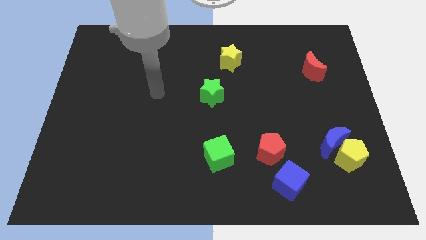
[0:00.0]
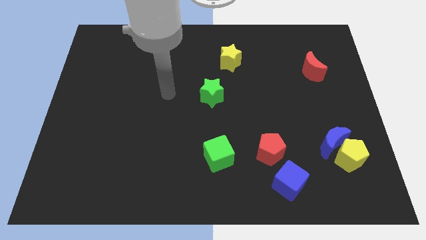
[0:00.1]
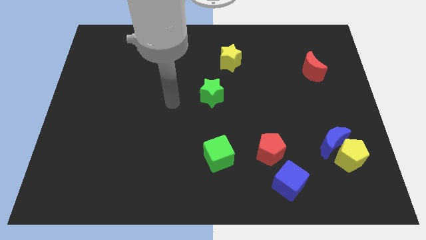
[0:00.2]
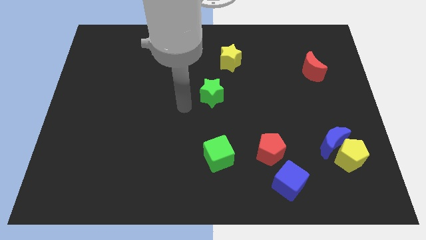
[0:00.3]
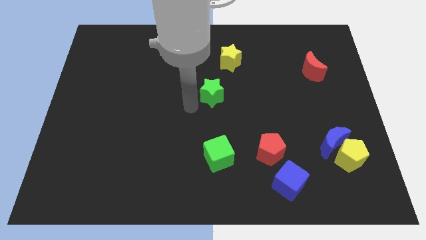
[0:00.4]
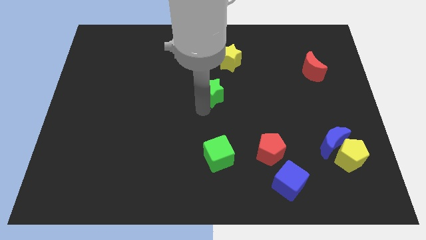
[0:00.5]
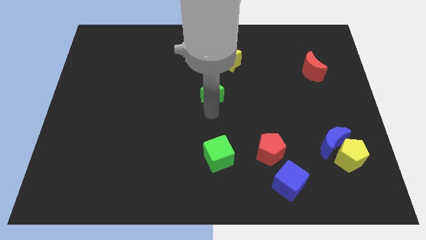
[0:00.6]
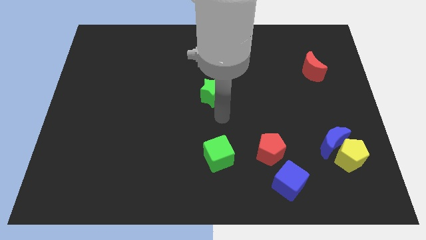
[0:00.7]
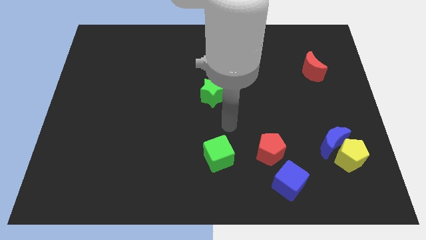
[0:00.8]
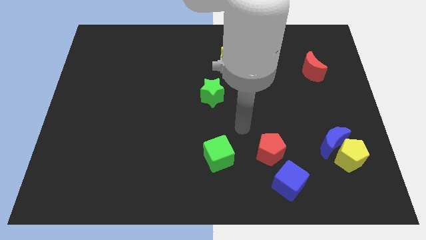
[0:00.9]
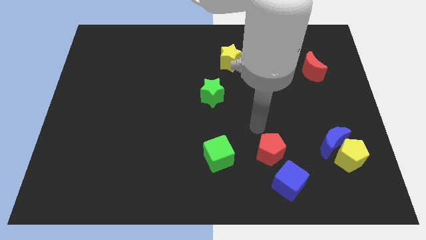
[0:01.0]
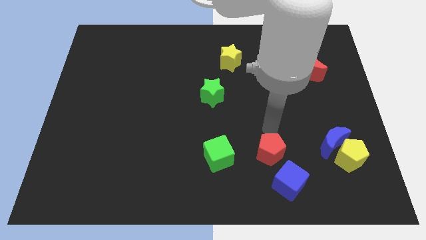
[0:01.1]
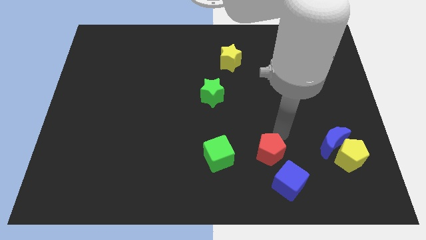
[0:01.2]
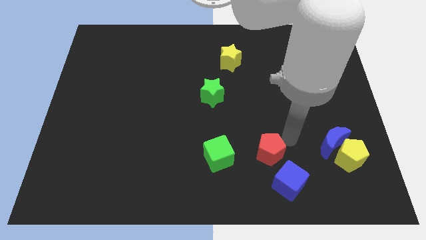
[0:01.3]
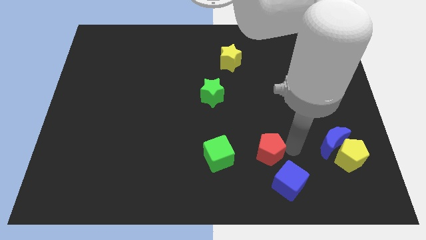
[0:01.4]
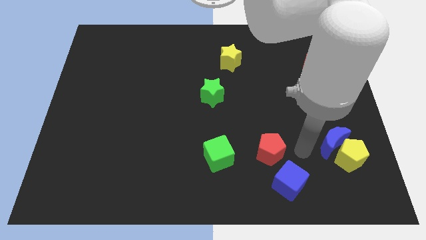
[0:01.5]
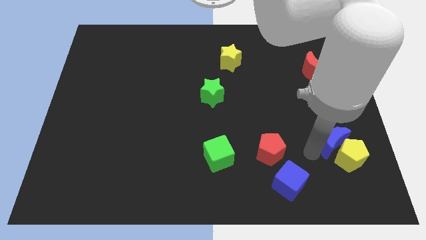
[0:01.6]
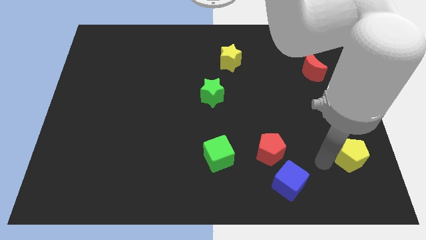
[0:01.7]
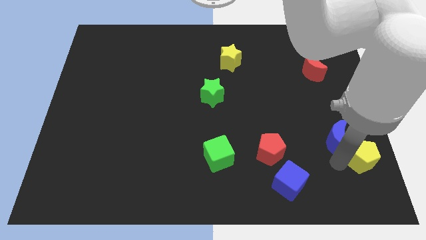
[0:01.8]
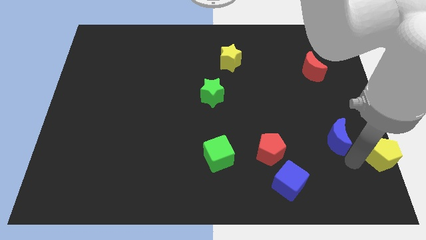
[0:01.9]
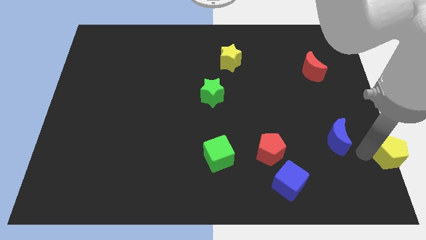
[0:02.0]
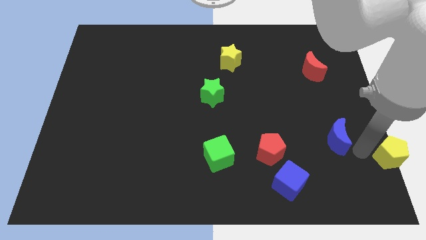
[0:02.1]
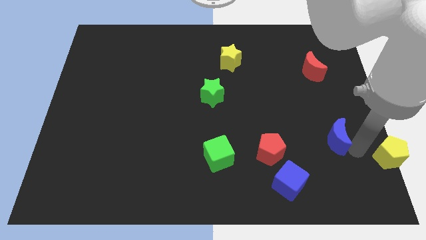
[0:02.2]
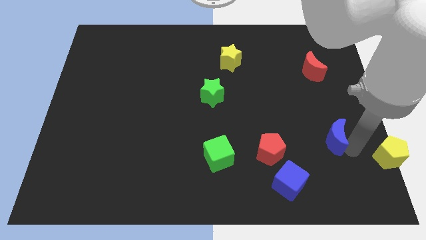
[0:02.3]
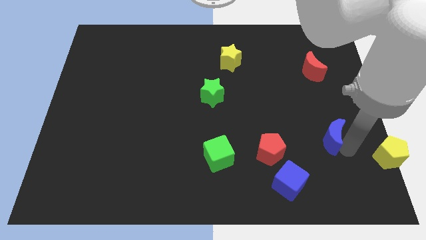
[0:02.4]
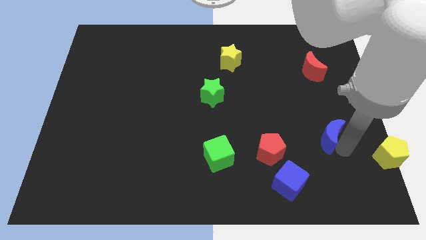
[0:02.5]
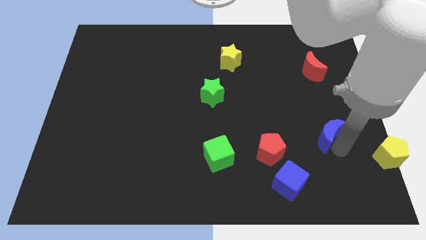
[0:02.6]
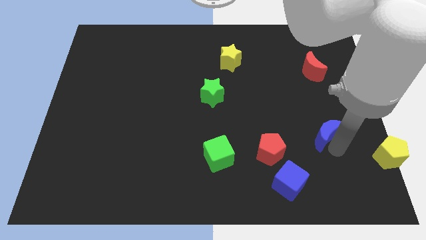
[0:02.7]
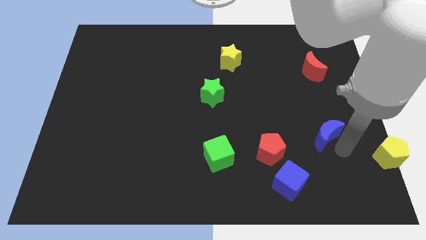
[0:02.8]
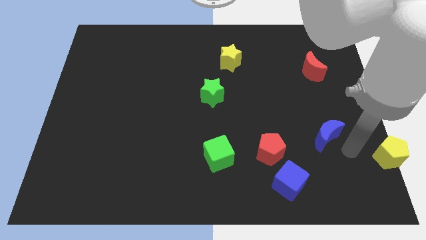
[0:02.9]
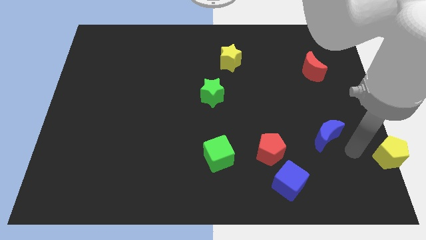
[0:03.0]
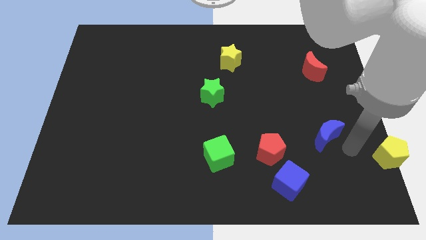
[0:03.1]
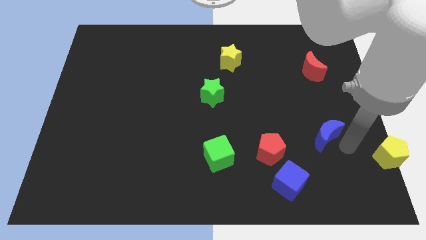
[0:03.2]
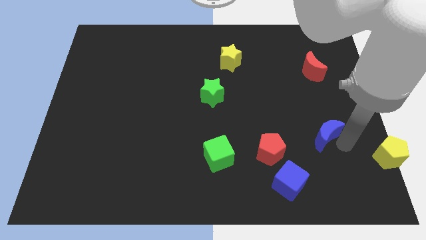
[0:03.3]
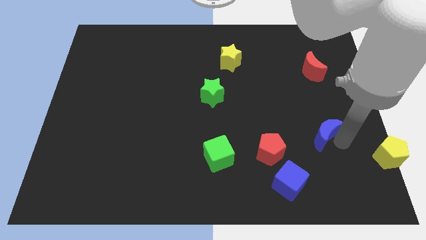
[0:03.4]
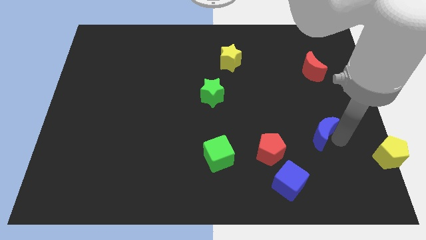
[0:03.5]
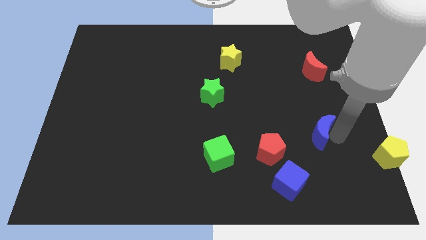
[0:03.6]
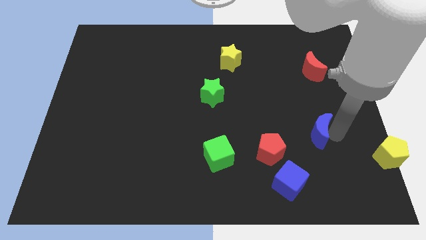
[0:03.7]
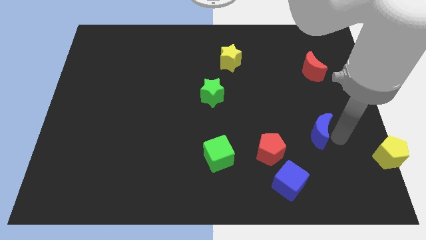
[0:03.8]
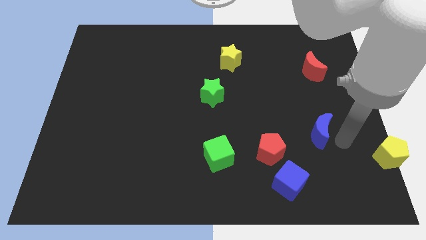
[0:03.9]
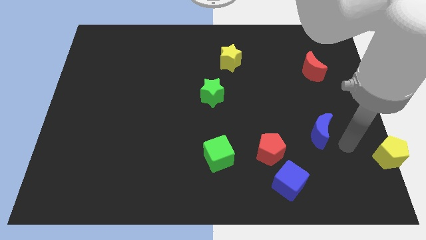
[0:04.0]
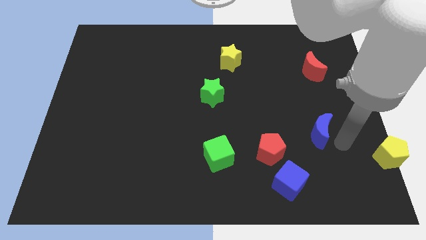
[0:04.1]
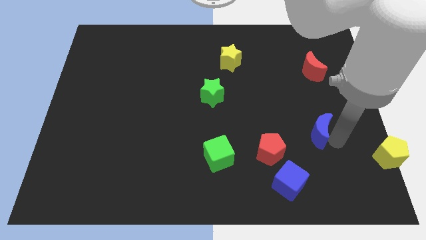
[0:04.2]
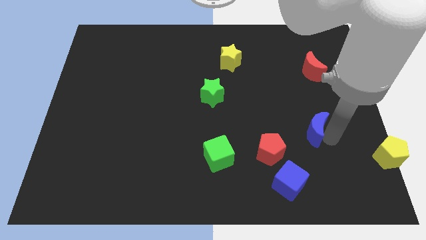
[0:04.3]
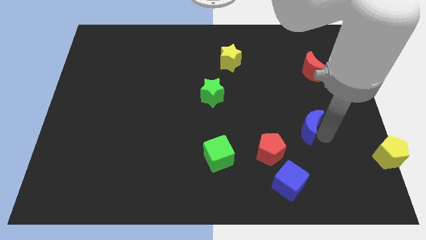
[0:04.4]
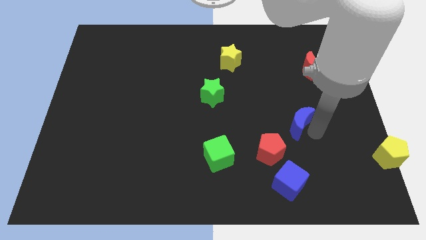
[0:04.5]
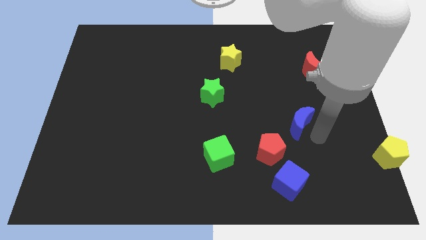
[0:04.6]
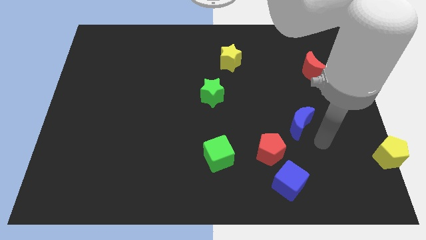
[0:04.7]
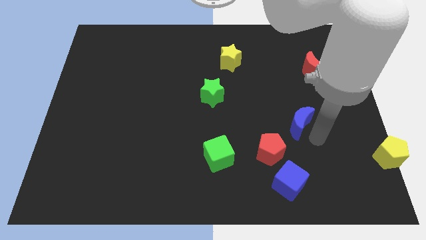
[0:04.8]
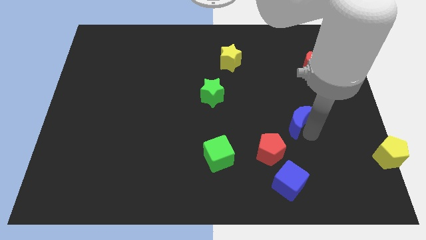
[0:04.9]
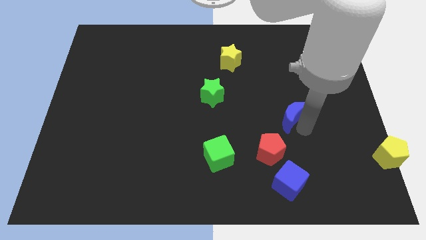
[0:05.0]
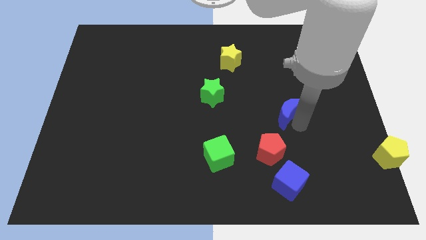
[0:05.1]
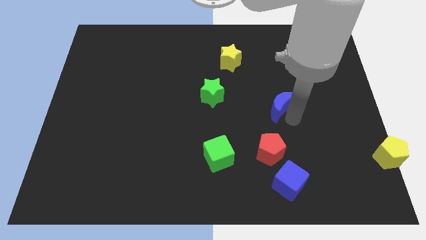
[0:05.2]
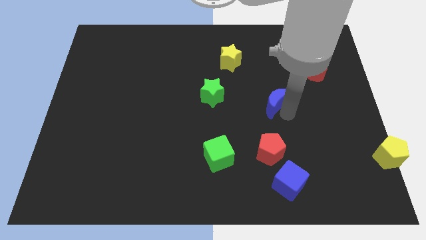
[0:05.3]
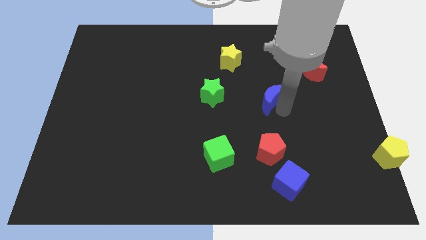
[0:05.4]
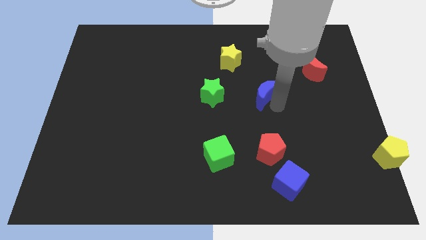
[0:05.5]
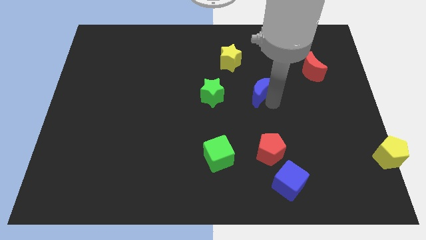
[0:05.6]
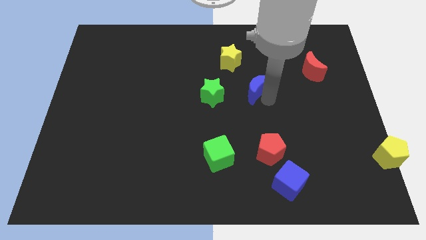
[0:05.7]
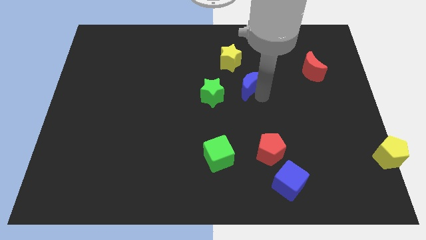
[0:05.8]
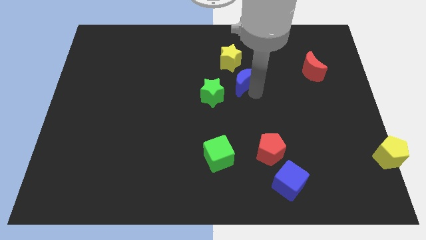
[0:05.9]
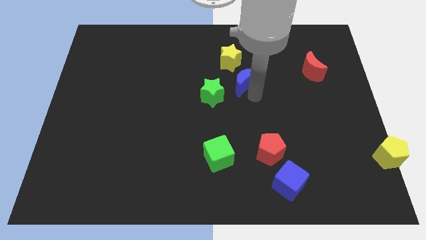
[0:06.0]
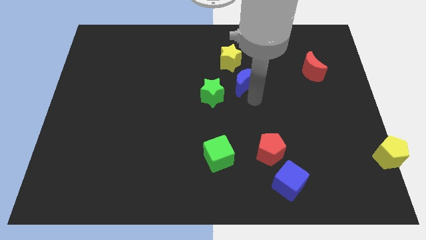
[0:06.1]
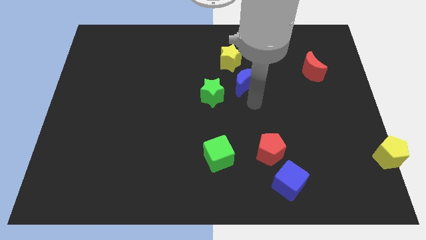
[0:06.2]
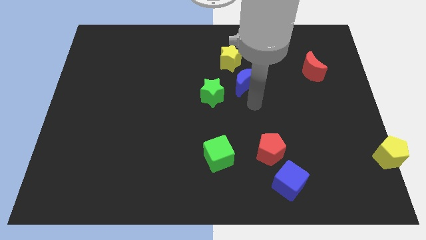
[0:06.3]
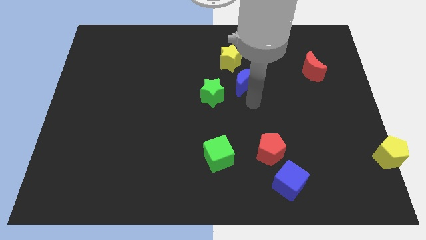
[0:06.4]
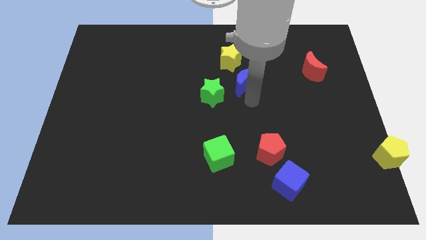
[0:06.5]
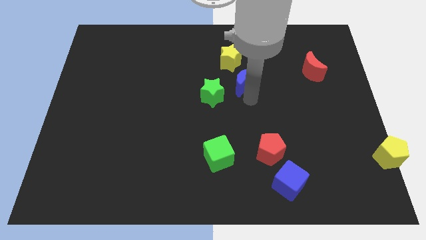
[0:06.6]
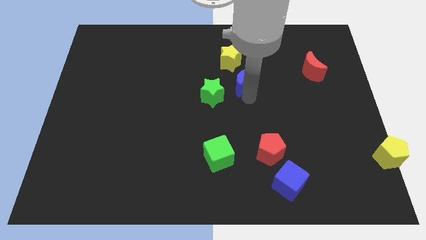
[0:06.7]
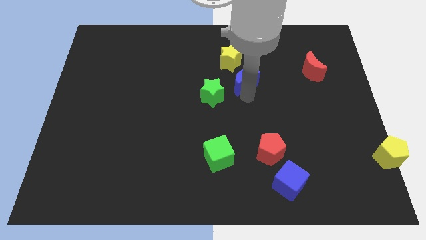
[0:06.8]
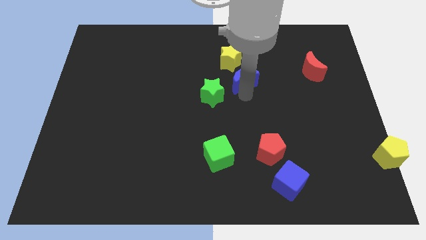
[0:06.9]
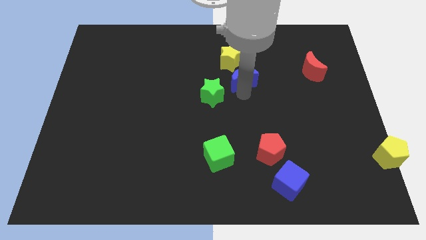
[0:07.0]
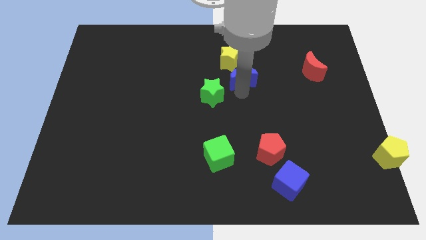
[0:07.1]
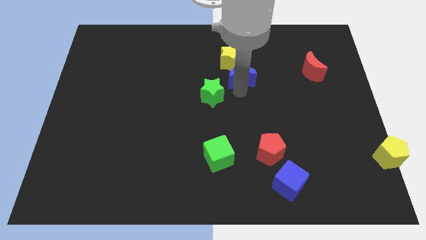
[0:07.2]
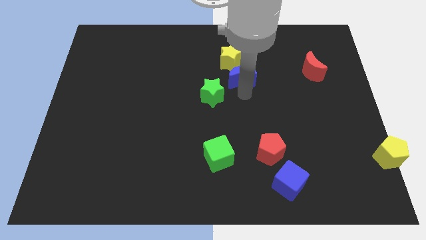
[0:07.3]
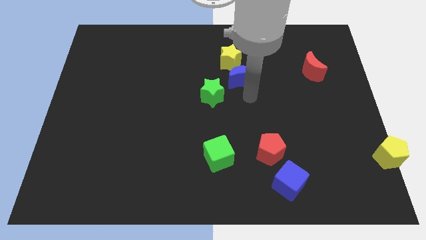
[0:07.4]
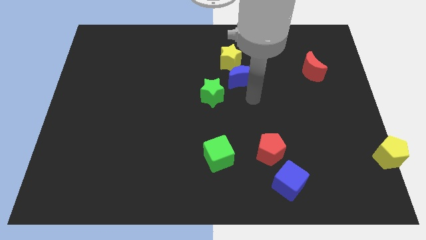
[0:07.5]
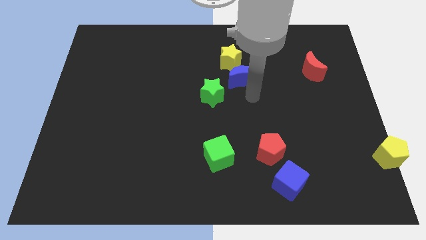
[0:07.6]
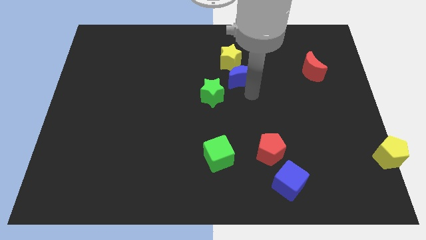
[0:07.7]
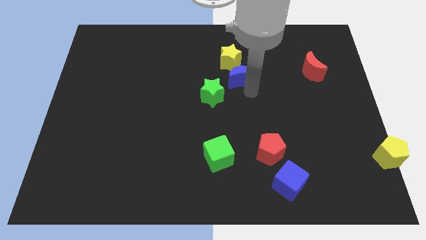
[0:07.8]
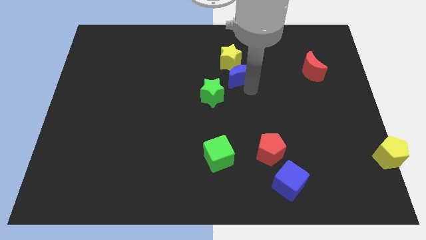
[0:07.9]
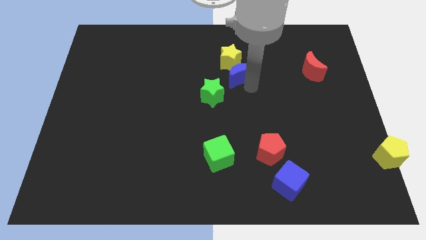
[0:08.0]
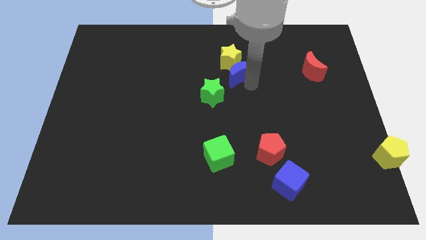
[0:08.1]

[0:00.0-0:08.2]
put the blue moon towards the yellow star
